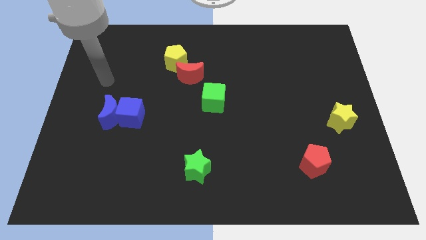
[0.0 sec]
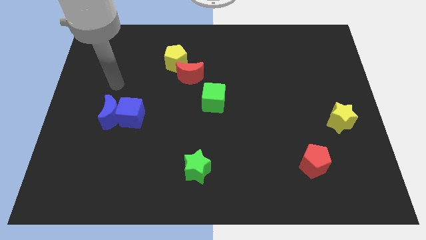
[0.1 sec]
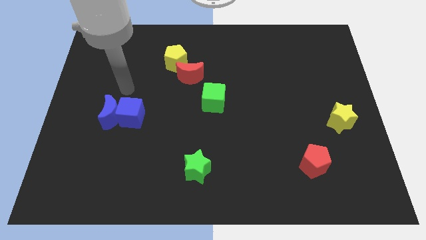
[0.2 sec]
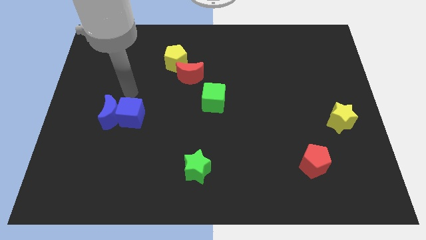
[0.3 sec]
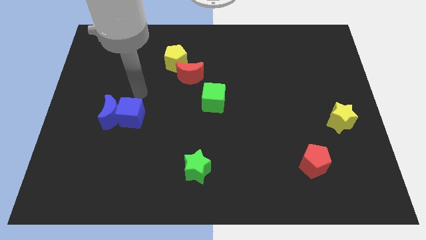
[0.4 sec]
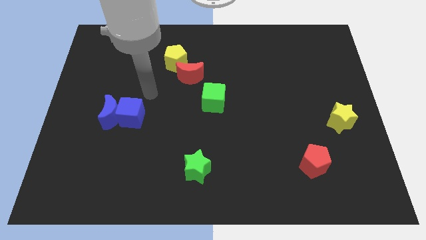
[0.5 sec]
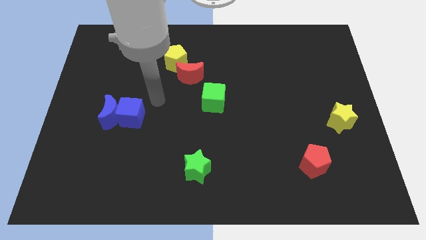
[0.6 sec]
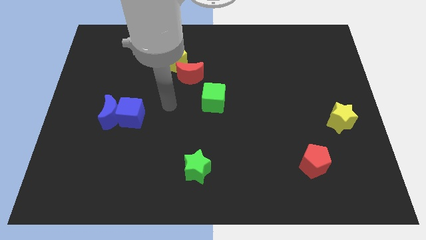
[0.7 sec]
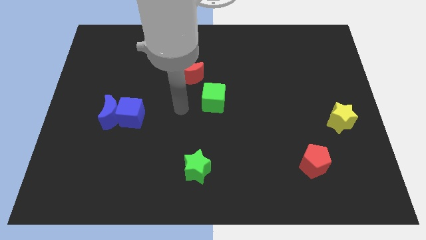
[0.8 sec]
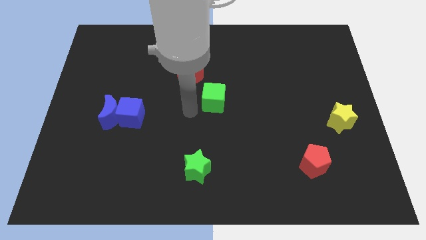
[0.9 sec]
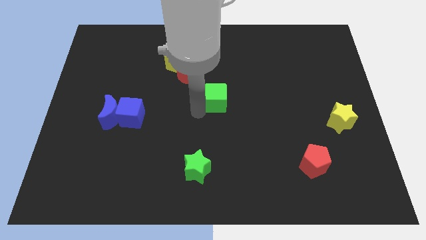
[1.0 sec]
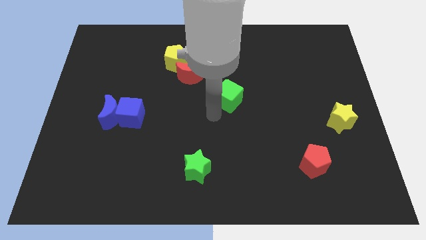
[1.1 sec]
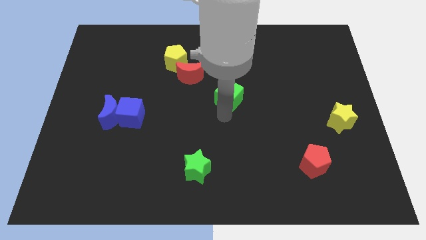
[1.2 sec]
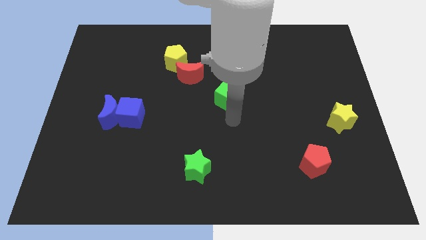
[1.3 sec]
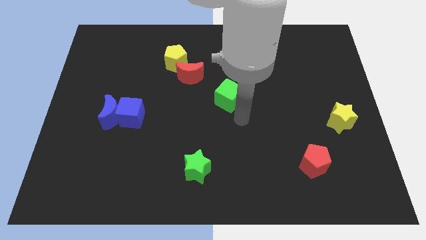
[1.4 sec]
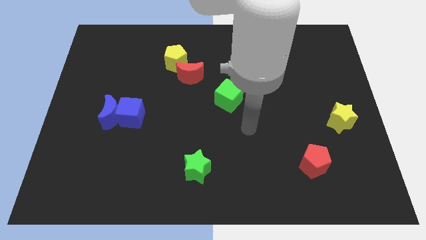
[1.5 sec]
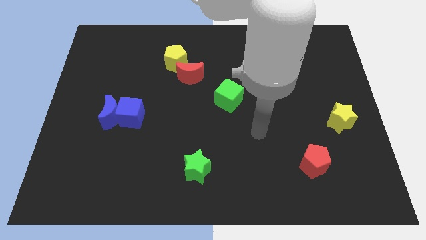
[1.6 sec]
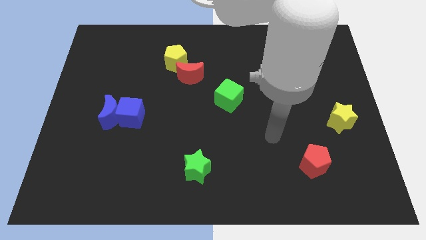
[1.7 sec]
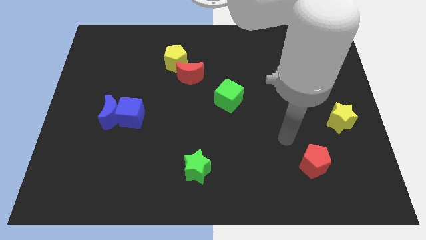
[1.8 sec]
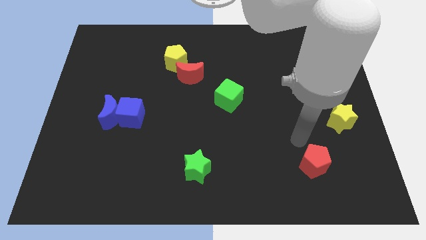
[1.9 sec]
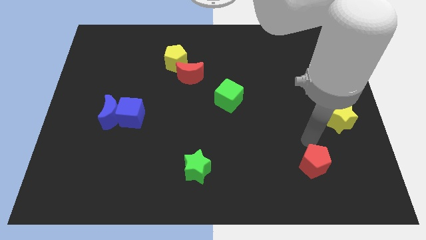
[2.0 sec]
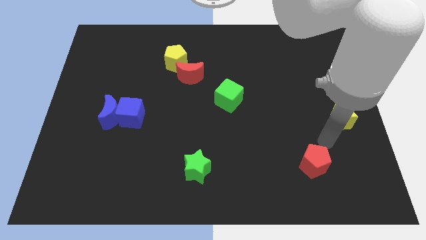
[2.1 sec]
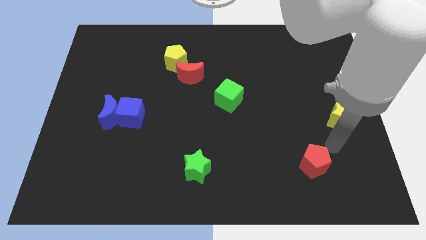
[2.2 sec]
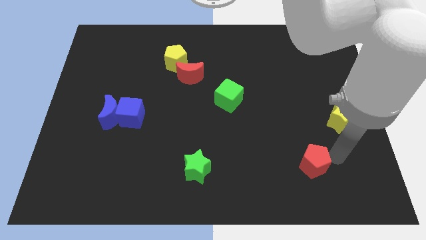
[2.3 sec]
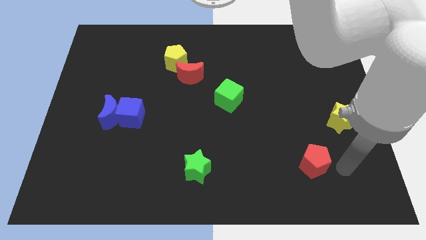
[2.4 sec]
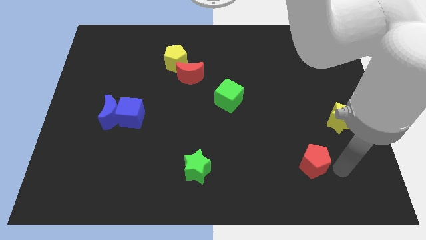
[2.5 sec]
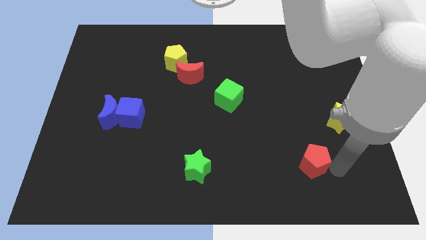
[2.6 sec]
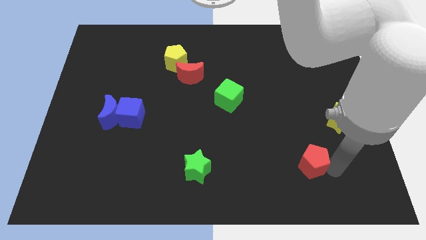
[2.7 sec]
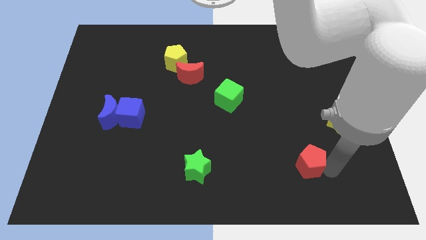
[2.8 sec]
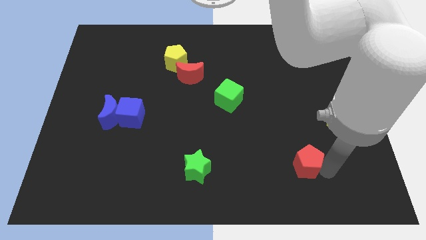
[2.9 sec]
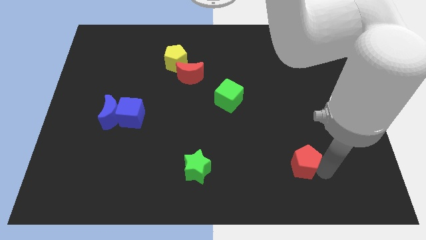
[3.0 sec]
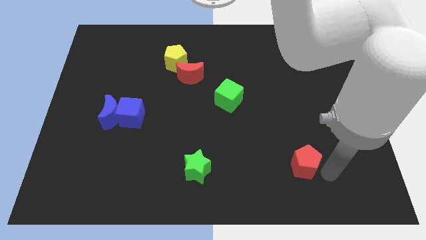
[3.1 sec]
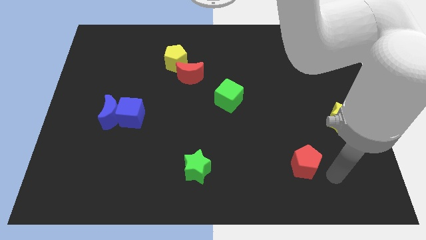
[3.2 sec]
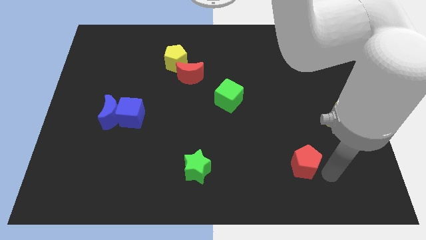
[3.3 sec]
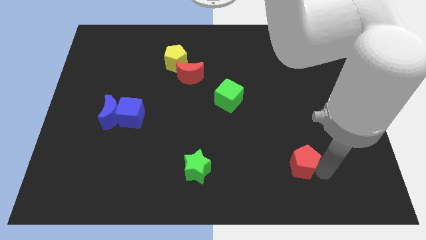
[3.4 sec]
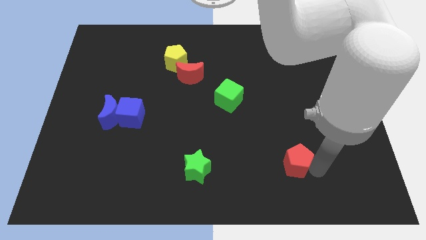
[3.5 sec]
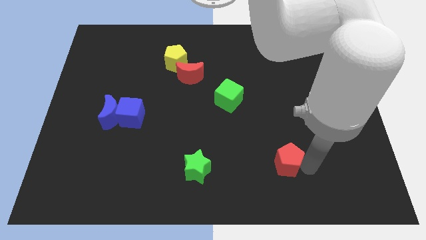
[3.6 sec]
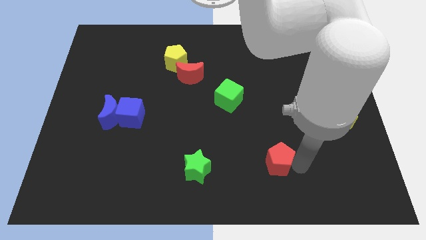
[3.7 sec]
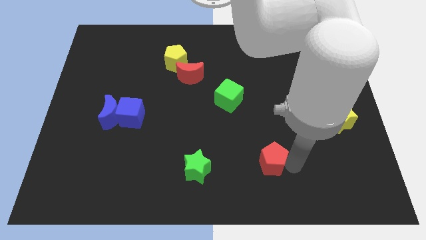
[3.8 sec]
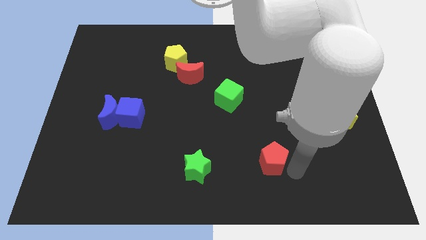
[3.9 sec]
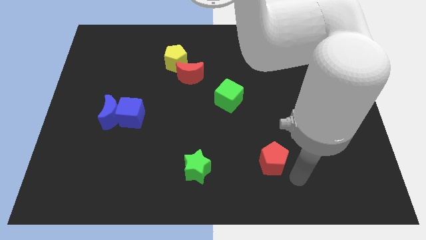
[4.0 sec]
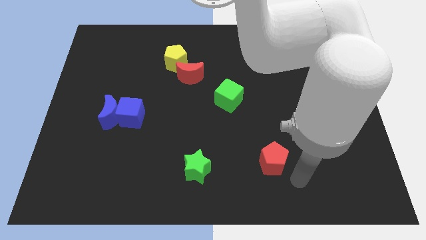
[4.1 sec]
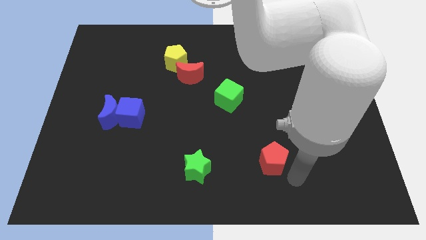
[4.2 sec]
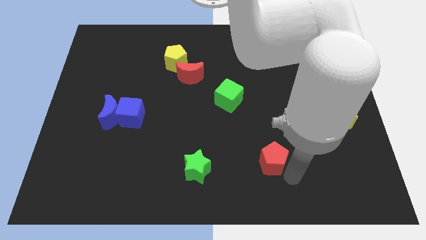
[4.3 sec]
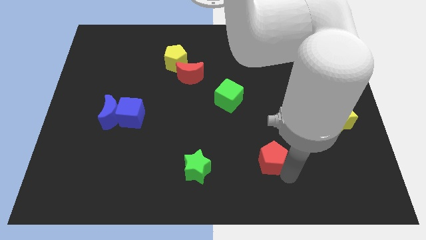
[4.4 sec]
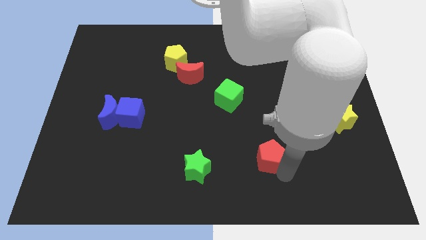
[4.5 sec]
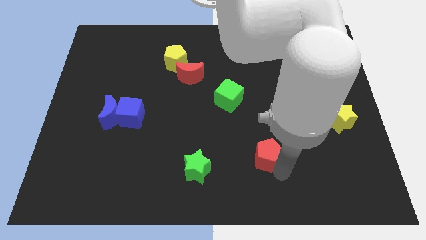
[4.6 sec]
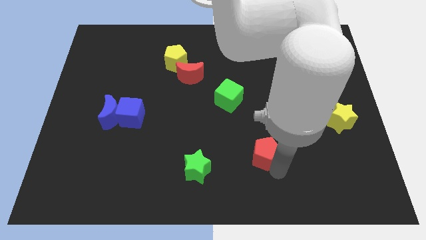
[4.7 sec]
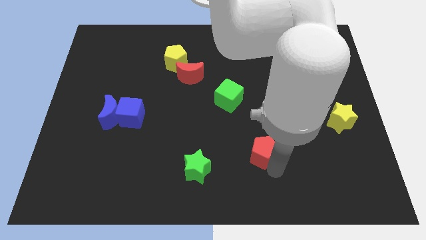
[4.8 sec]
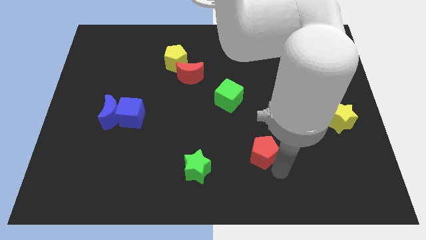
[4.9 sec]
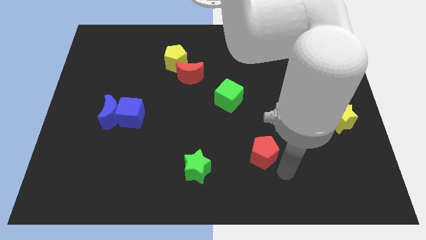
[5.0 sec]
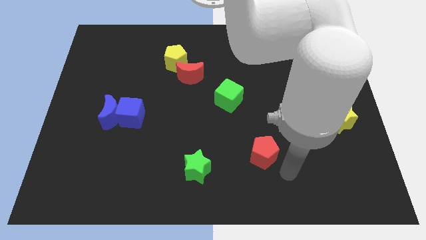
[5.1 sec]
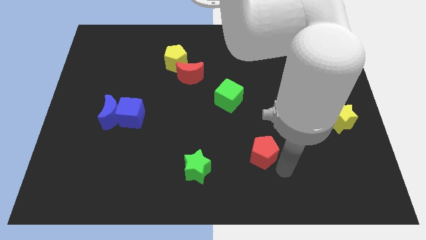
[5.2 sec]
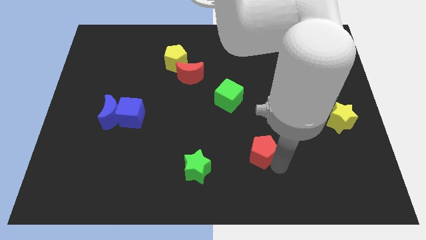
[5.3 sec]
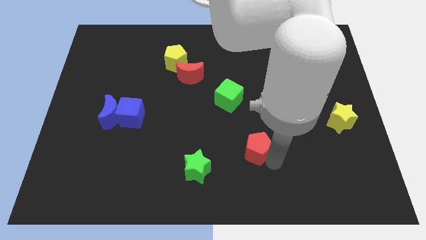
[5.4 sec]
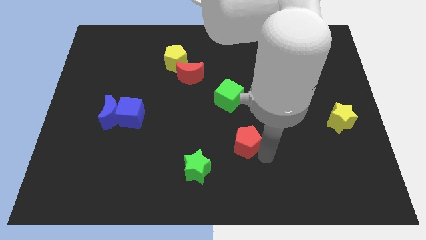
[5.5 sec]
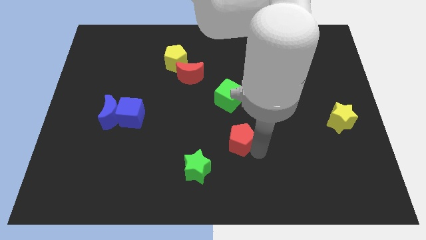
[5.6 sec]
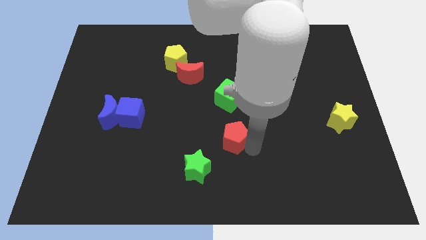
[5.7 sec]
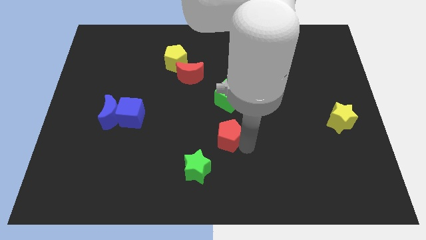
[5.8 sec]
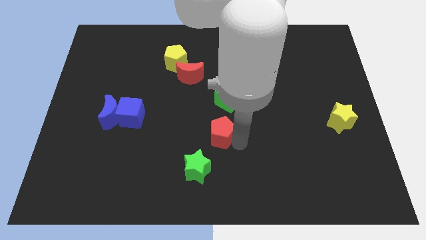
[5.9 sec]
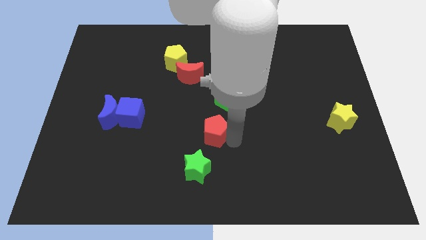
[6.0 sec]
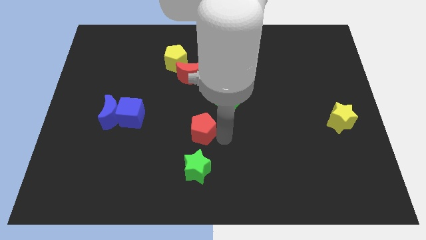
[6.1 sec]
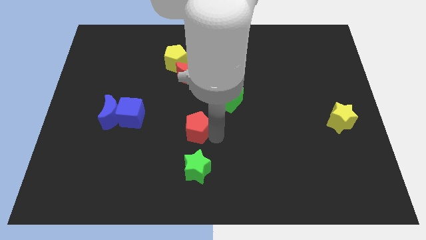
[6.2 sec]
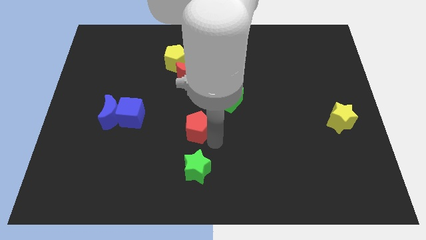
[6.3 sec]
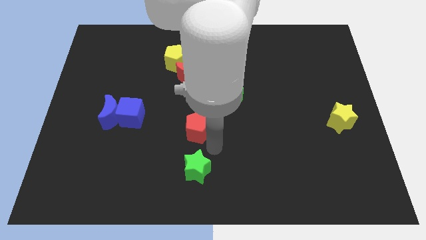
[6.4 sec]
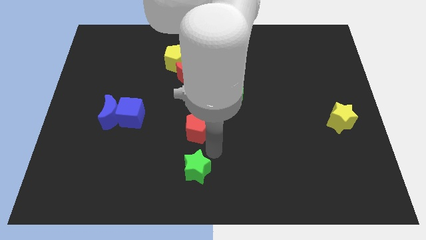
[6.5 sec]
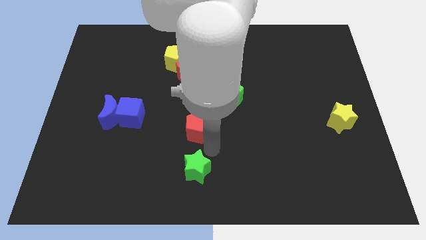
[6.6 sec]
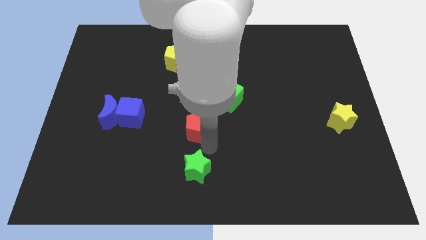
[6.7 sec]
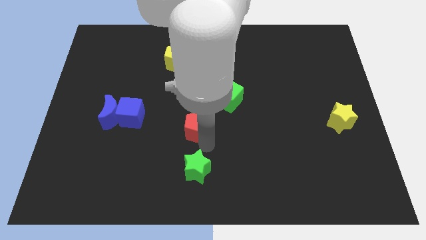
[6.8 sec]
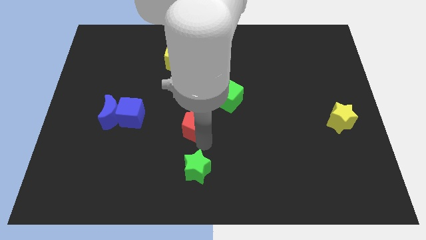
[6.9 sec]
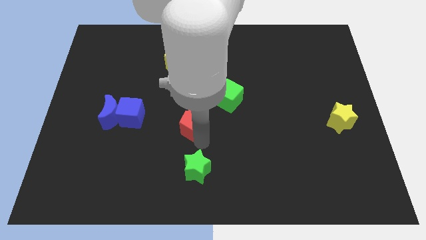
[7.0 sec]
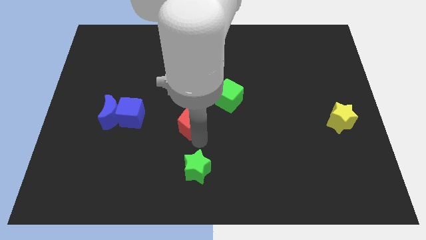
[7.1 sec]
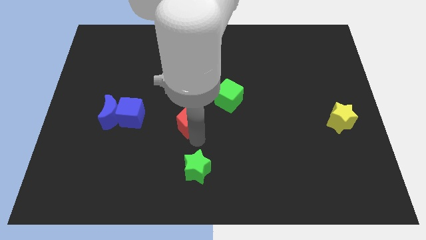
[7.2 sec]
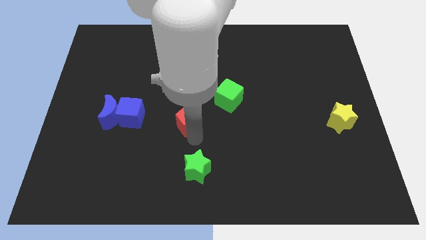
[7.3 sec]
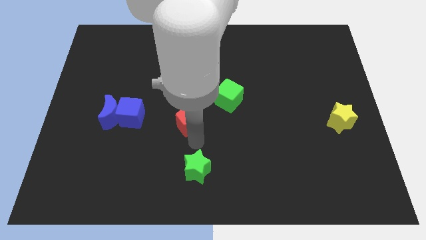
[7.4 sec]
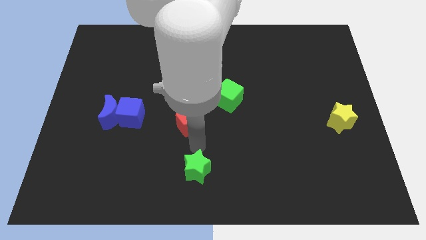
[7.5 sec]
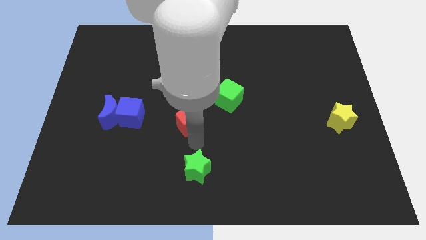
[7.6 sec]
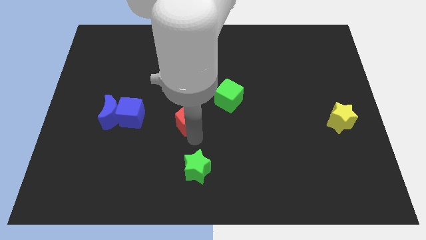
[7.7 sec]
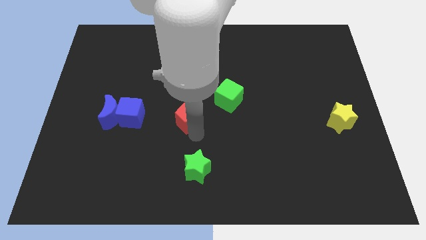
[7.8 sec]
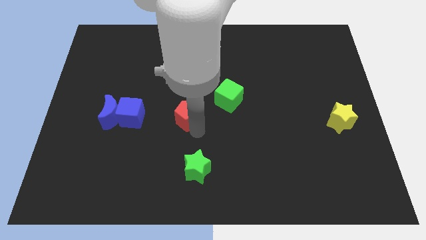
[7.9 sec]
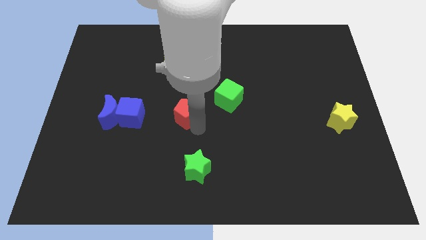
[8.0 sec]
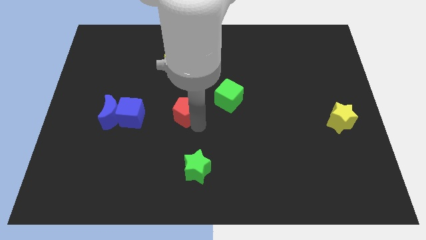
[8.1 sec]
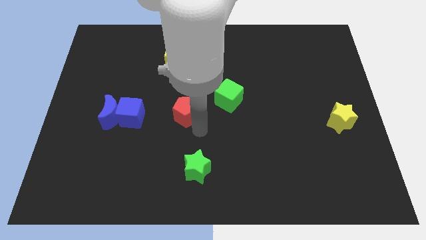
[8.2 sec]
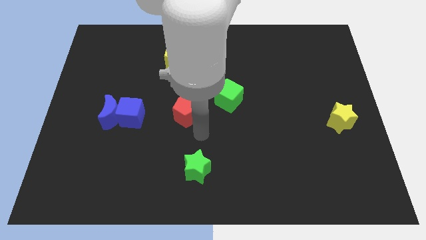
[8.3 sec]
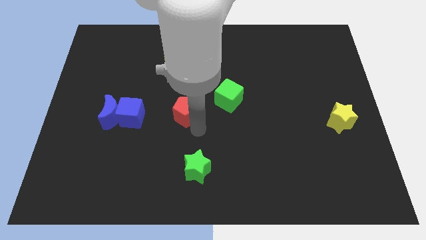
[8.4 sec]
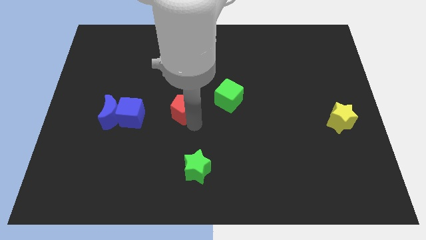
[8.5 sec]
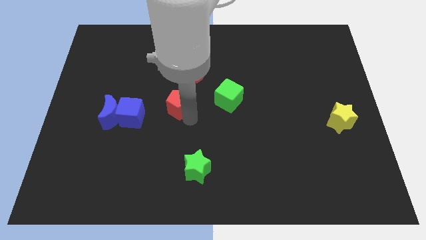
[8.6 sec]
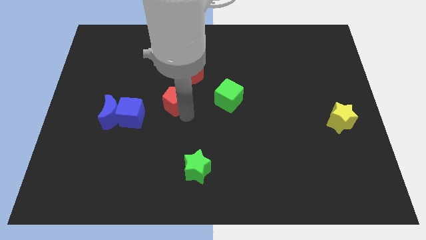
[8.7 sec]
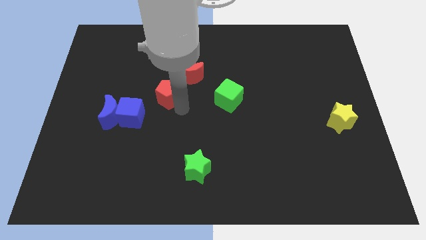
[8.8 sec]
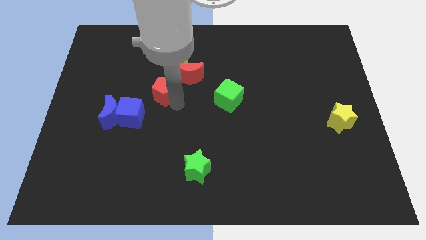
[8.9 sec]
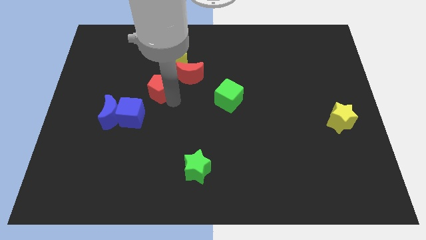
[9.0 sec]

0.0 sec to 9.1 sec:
put the red pentagon just left of the red moon
